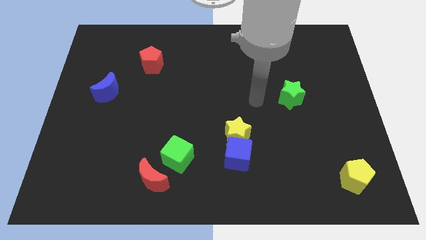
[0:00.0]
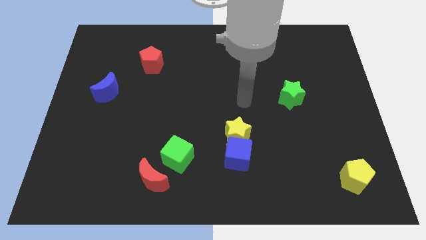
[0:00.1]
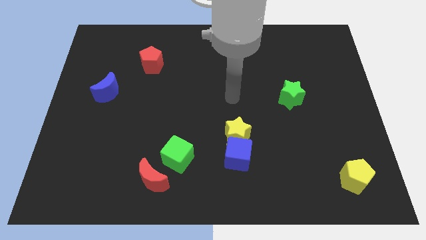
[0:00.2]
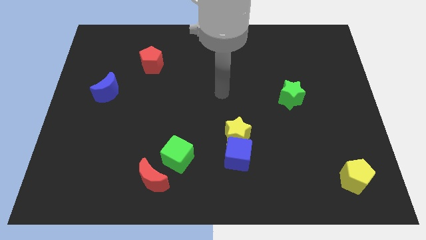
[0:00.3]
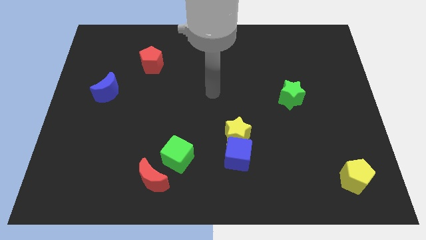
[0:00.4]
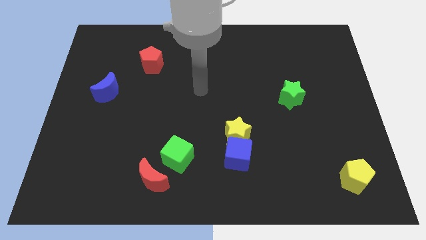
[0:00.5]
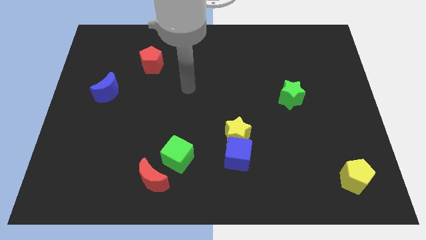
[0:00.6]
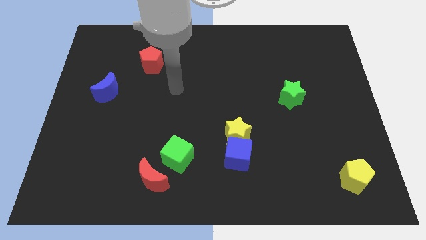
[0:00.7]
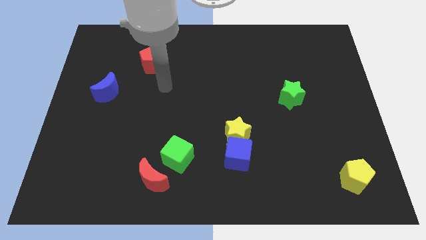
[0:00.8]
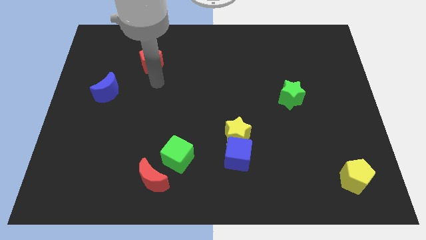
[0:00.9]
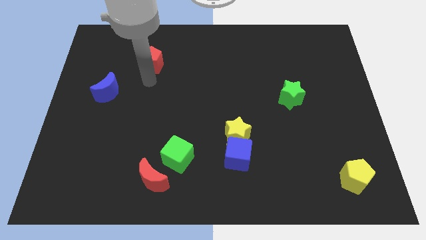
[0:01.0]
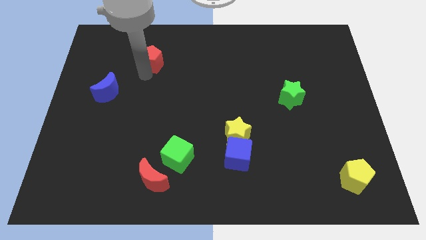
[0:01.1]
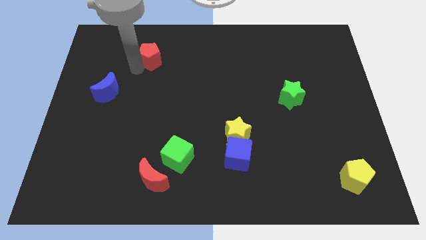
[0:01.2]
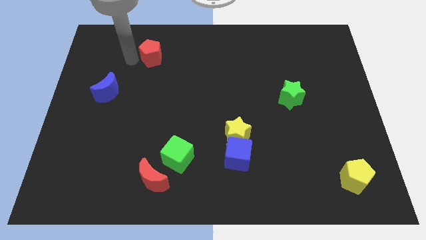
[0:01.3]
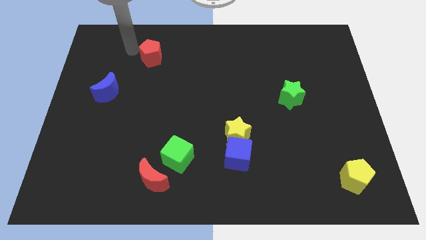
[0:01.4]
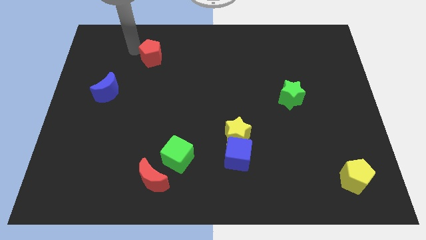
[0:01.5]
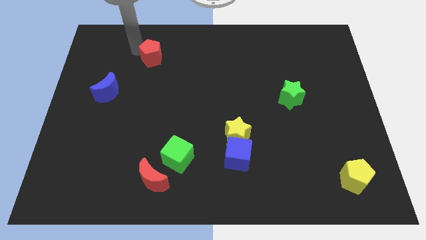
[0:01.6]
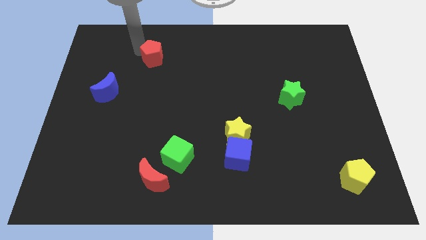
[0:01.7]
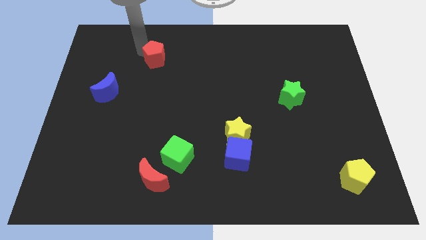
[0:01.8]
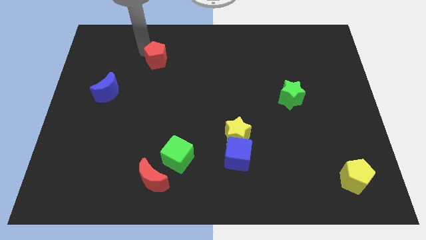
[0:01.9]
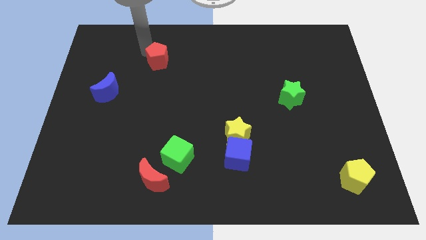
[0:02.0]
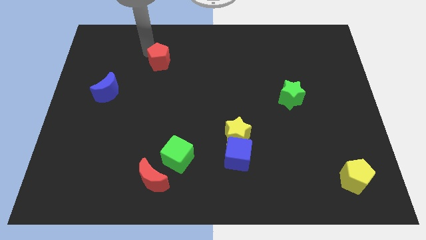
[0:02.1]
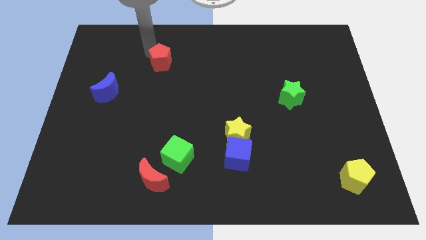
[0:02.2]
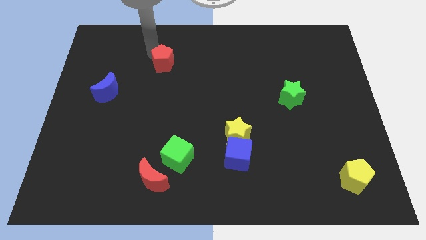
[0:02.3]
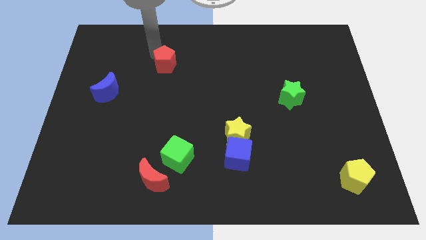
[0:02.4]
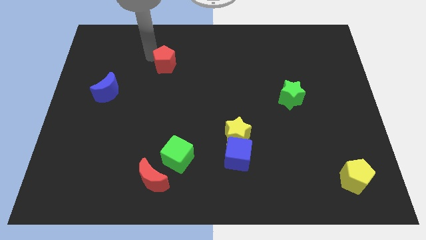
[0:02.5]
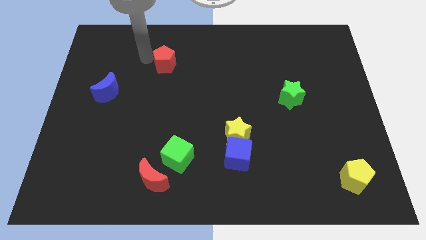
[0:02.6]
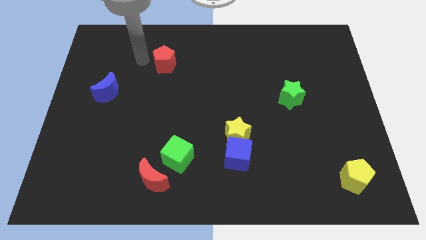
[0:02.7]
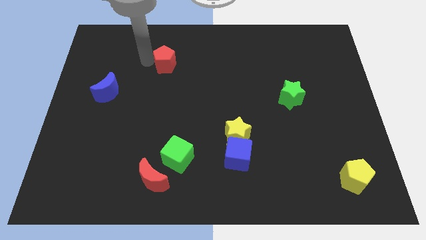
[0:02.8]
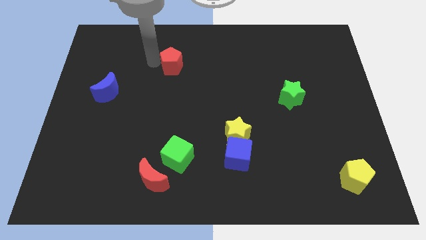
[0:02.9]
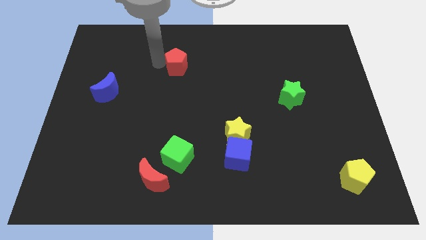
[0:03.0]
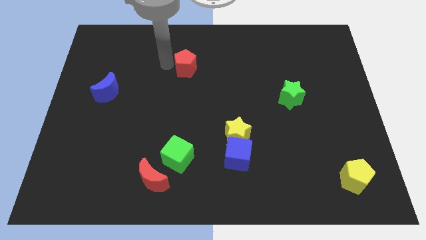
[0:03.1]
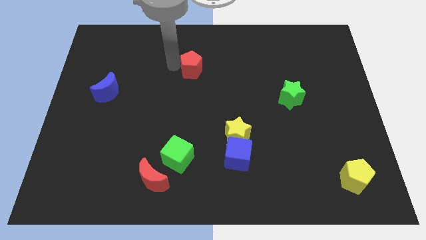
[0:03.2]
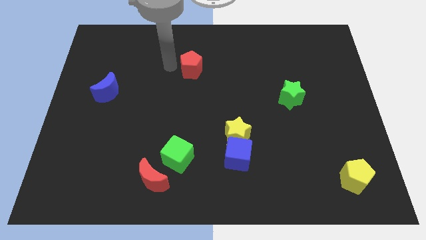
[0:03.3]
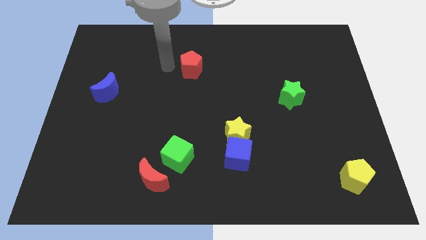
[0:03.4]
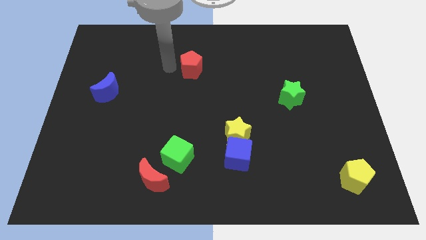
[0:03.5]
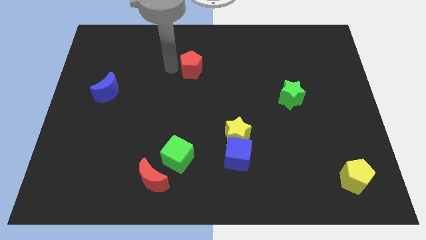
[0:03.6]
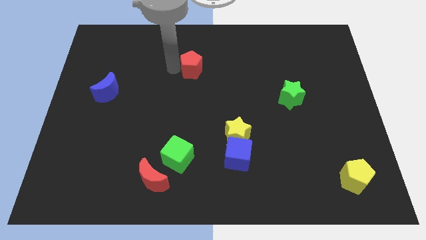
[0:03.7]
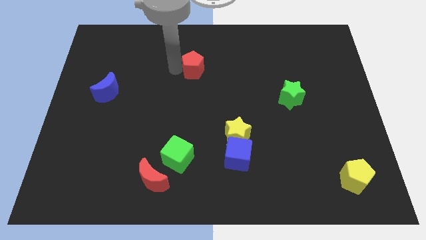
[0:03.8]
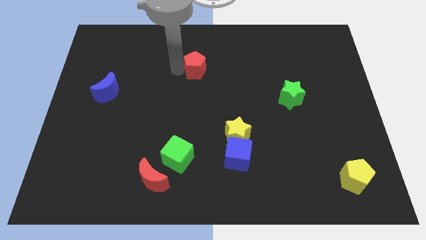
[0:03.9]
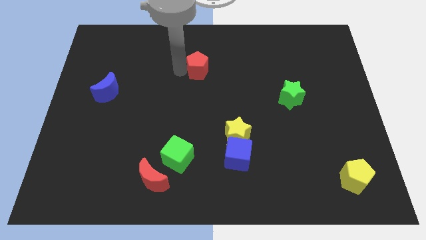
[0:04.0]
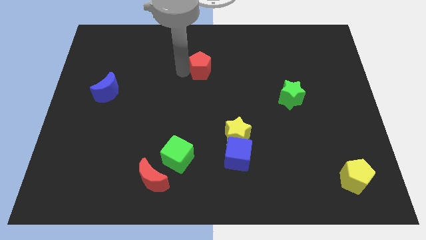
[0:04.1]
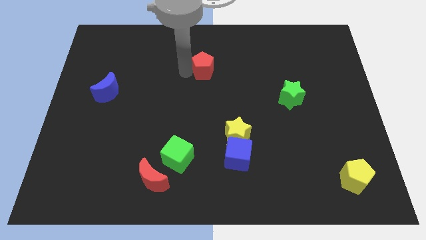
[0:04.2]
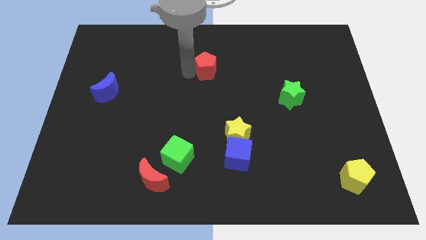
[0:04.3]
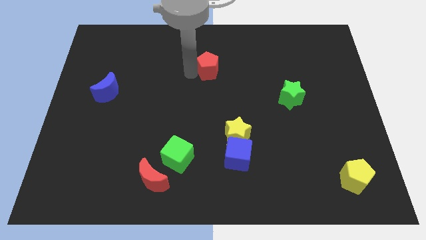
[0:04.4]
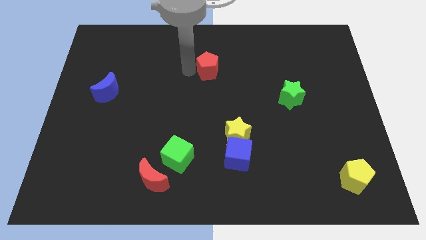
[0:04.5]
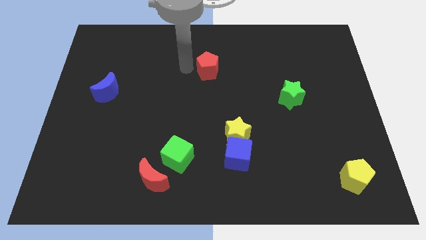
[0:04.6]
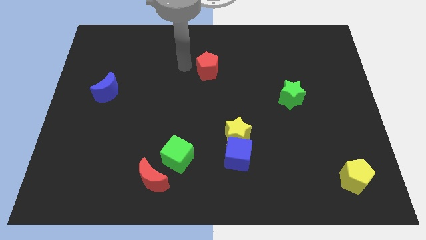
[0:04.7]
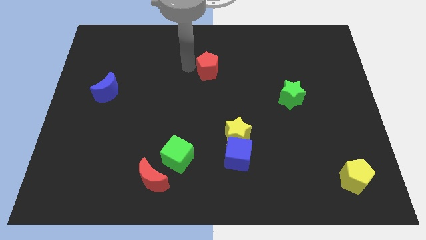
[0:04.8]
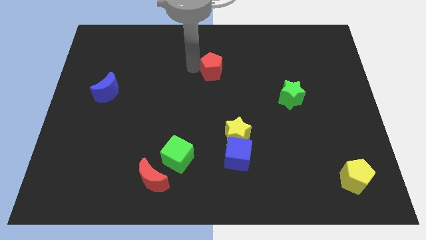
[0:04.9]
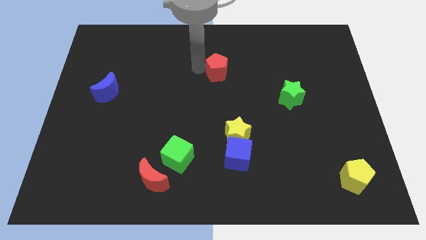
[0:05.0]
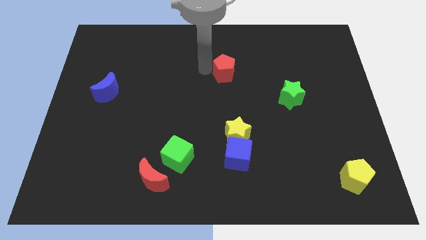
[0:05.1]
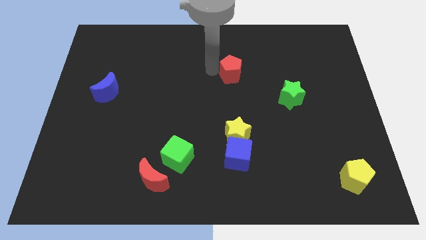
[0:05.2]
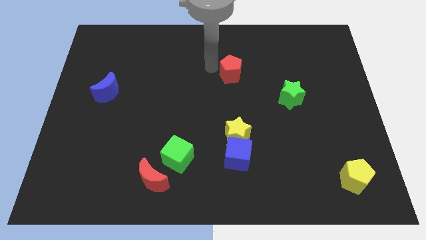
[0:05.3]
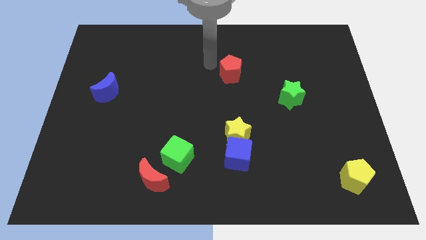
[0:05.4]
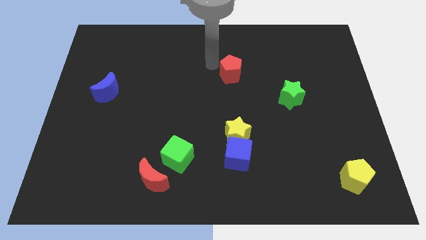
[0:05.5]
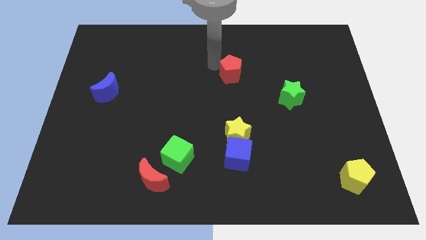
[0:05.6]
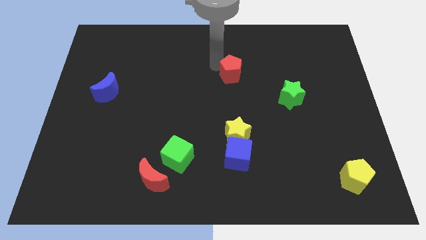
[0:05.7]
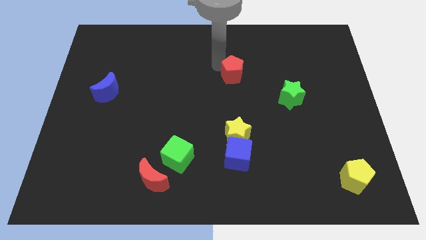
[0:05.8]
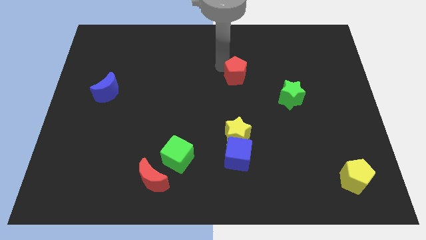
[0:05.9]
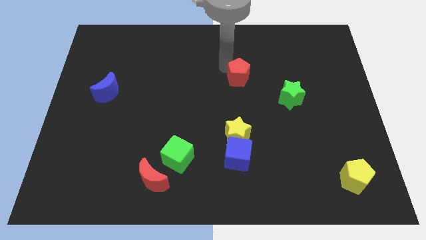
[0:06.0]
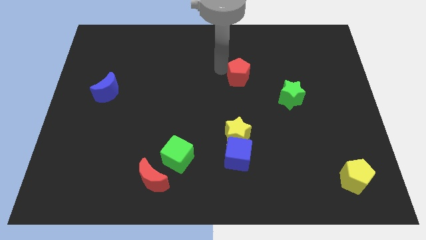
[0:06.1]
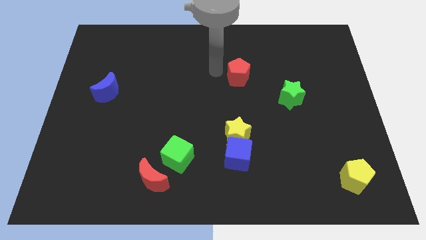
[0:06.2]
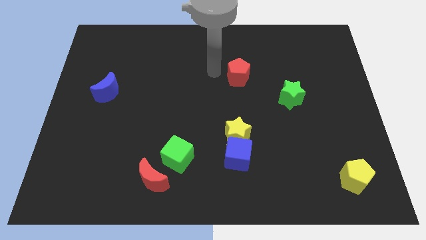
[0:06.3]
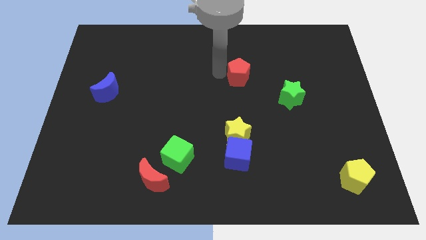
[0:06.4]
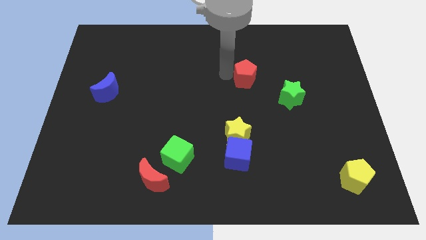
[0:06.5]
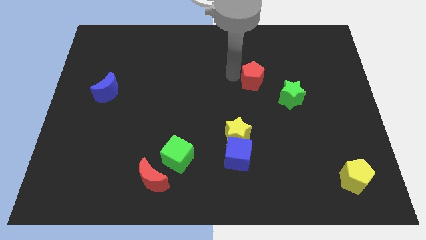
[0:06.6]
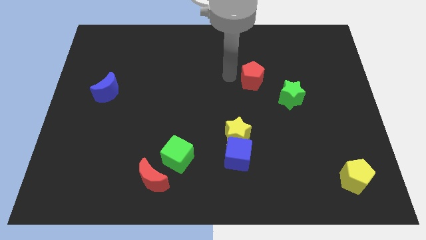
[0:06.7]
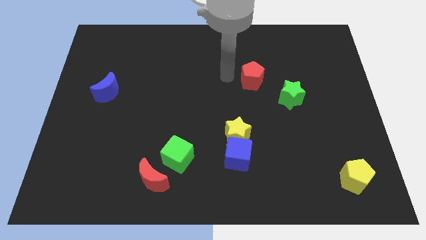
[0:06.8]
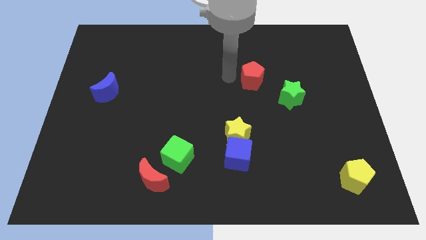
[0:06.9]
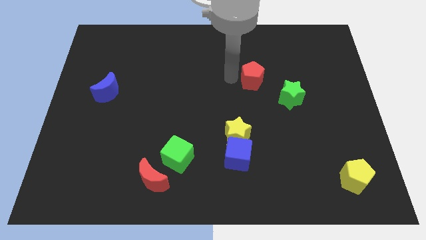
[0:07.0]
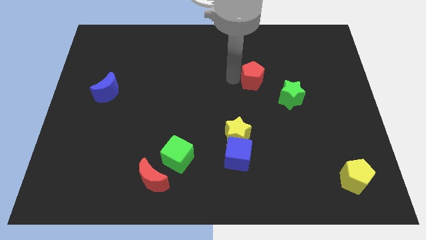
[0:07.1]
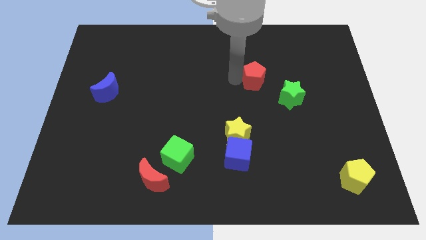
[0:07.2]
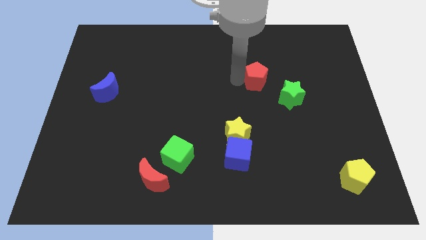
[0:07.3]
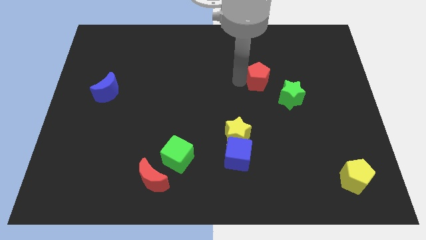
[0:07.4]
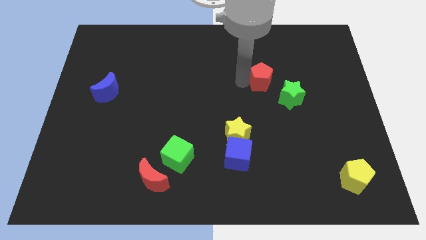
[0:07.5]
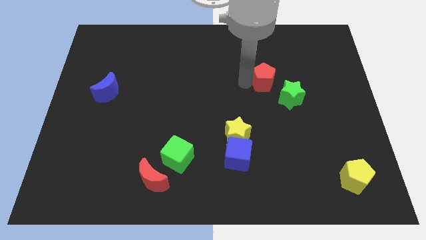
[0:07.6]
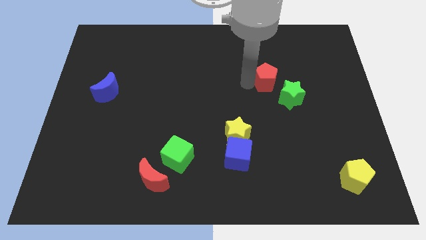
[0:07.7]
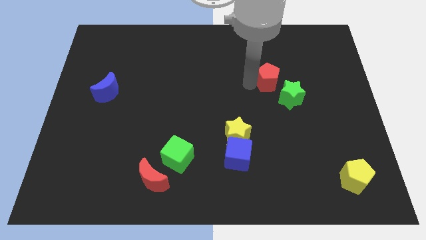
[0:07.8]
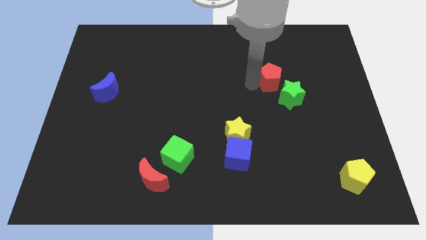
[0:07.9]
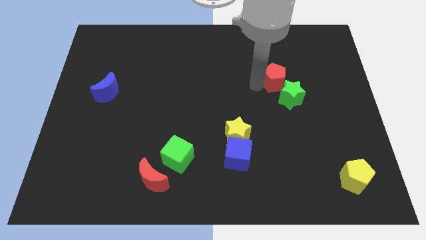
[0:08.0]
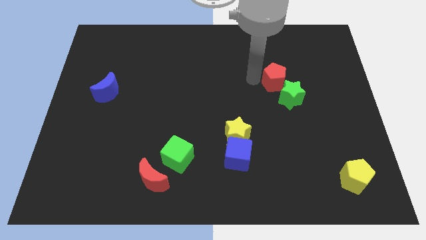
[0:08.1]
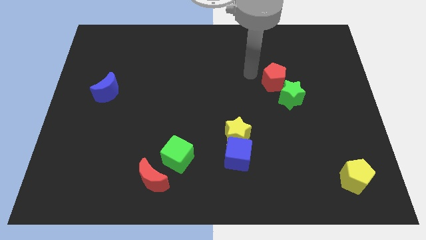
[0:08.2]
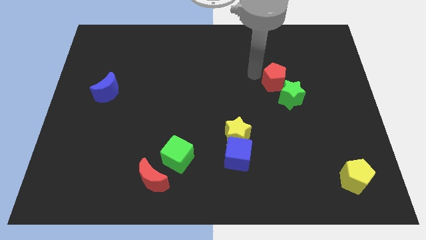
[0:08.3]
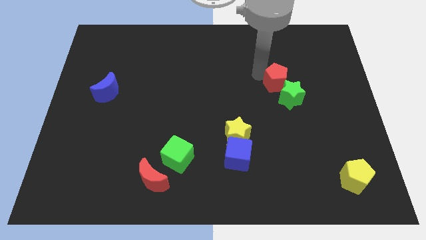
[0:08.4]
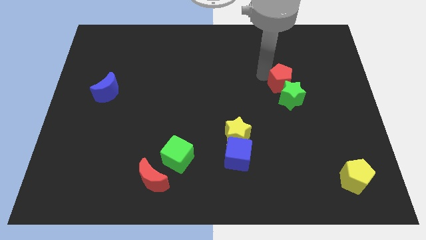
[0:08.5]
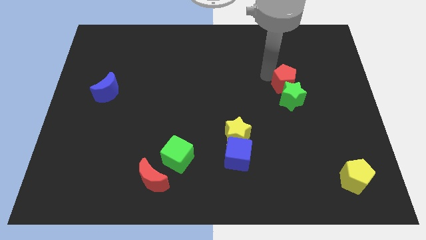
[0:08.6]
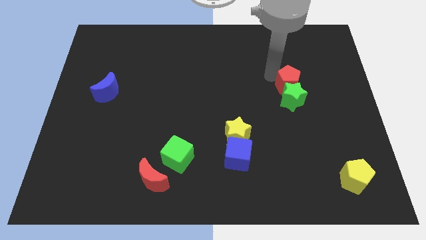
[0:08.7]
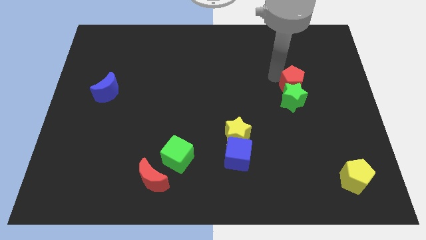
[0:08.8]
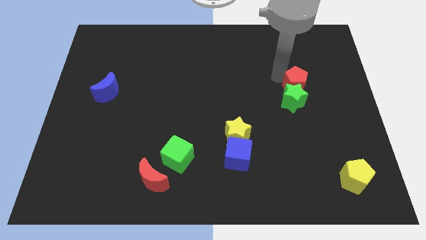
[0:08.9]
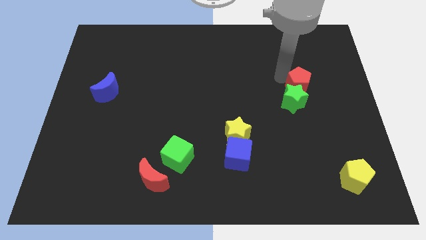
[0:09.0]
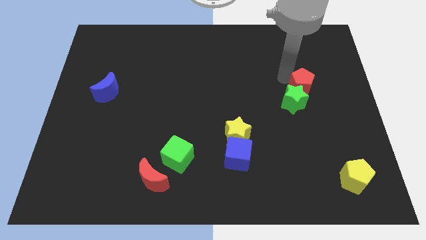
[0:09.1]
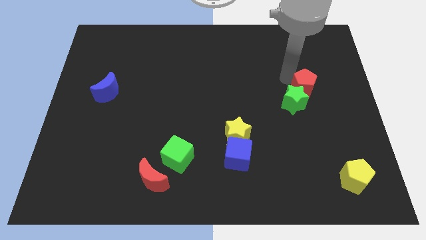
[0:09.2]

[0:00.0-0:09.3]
put the red pentagon just right of the green star
